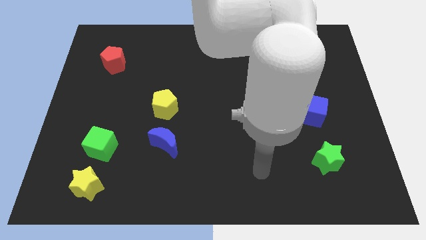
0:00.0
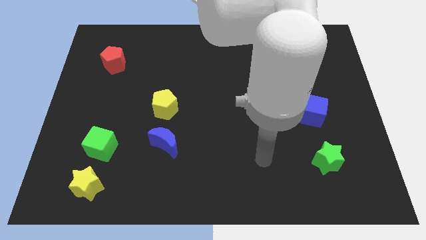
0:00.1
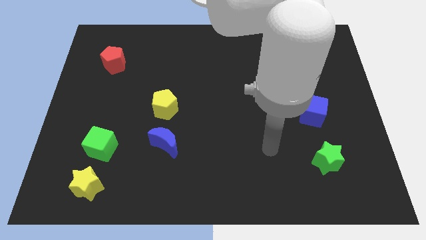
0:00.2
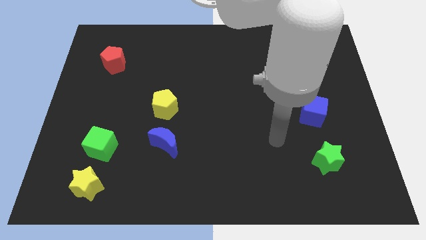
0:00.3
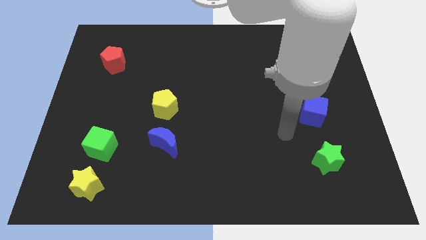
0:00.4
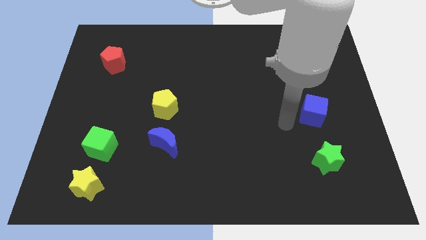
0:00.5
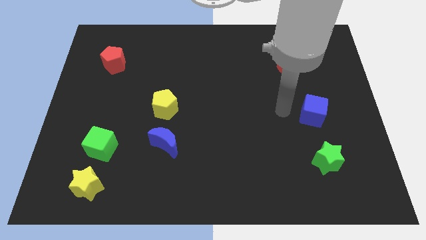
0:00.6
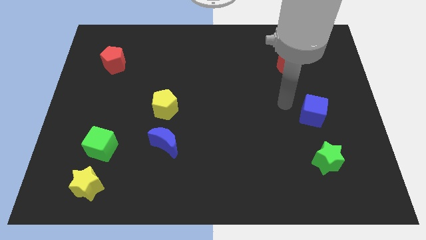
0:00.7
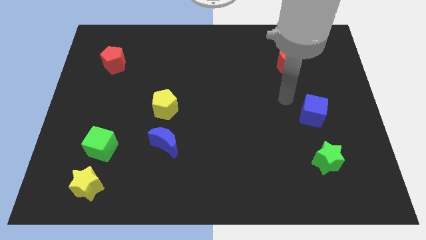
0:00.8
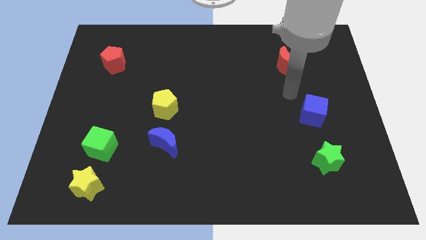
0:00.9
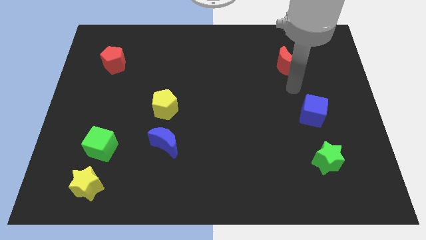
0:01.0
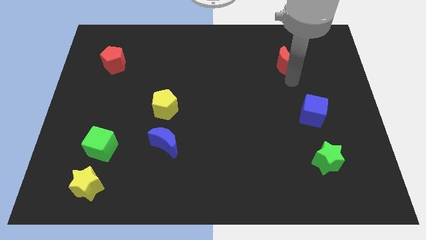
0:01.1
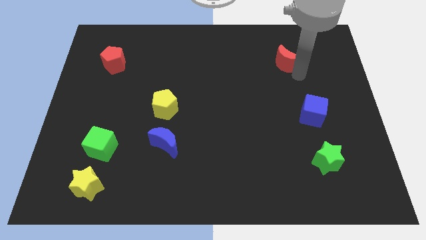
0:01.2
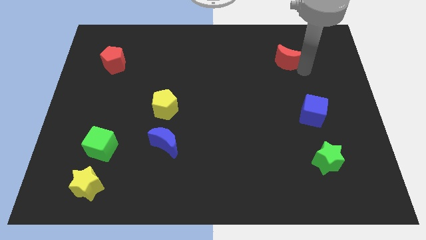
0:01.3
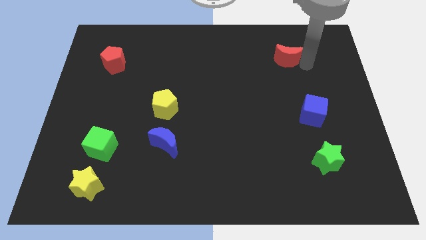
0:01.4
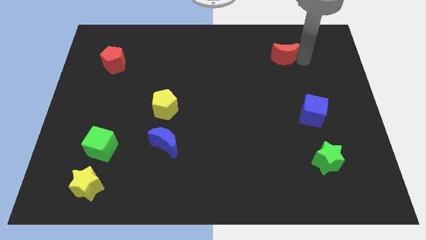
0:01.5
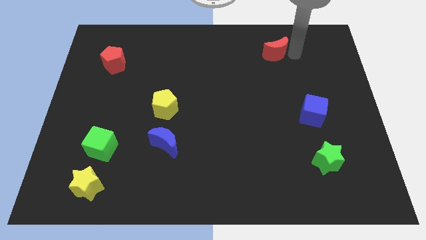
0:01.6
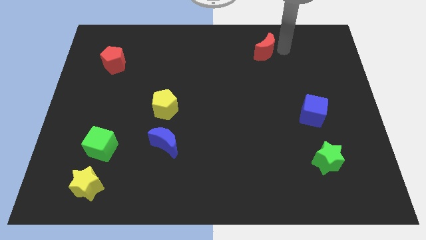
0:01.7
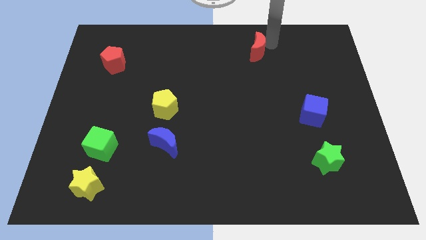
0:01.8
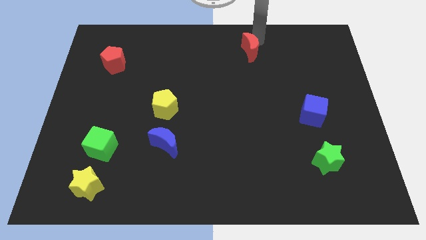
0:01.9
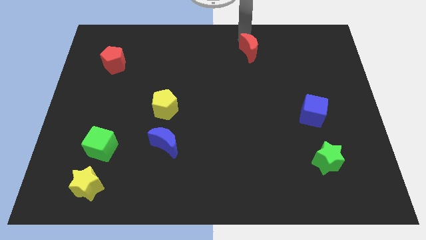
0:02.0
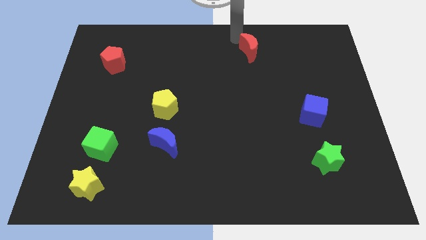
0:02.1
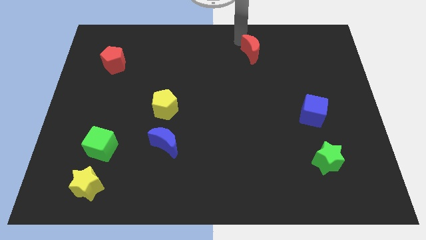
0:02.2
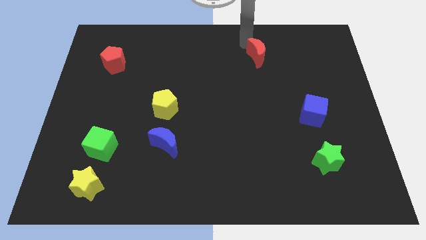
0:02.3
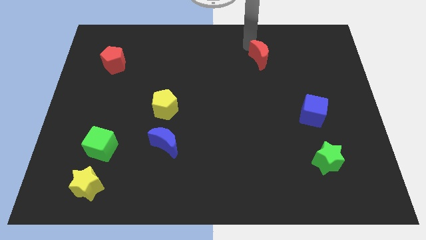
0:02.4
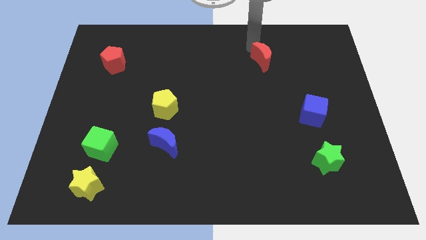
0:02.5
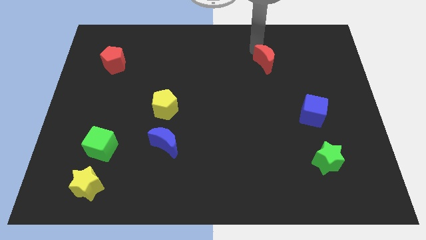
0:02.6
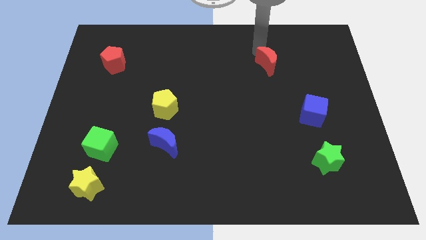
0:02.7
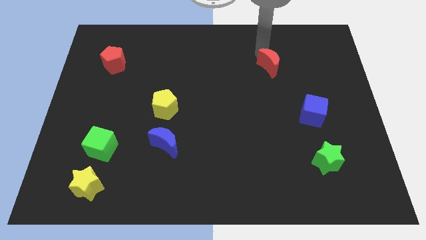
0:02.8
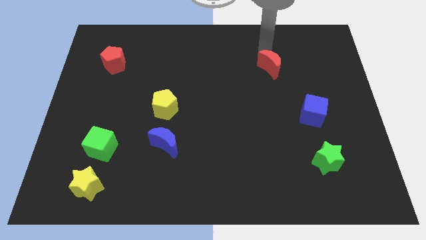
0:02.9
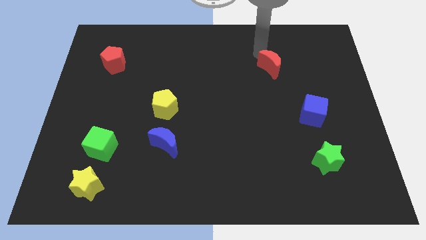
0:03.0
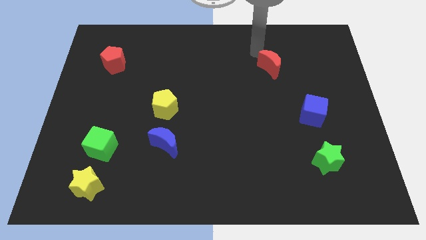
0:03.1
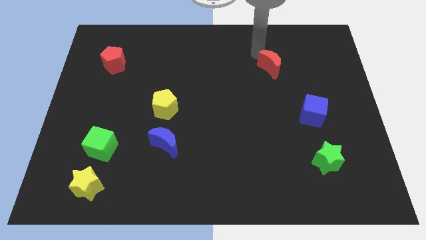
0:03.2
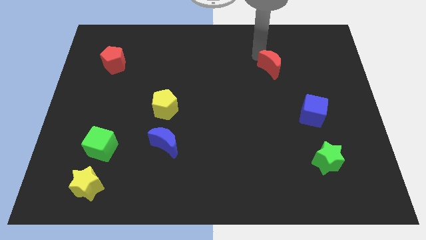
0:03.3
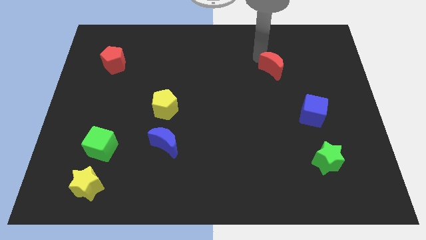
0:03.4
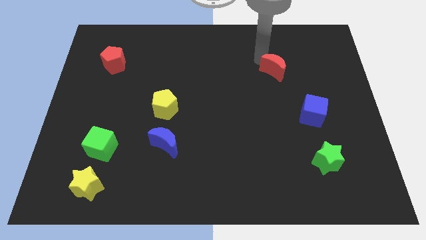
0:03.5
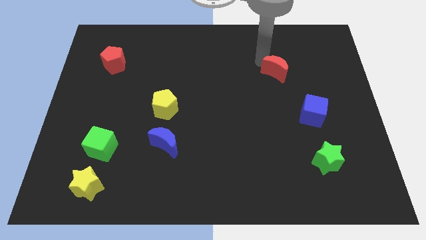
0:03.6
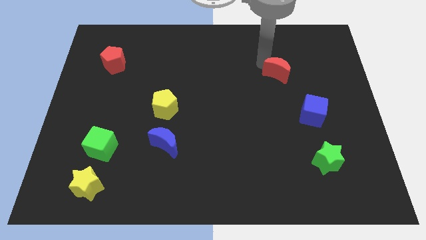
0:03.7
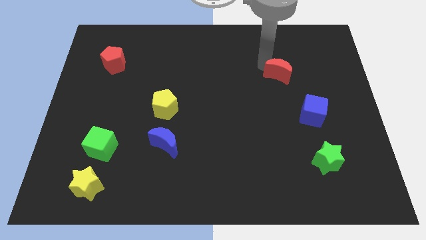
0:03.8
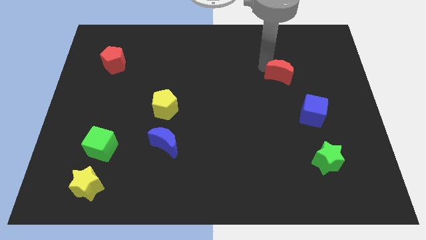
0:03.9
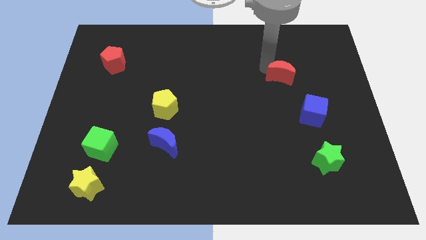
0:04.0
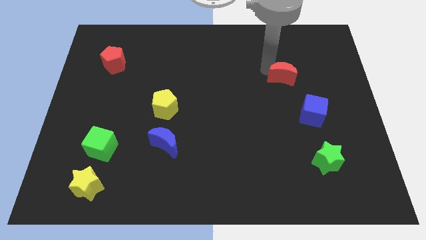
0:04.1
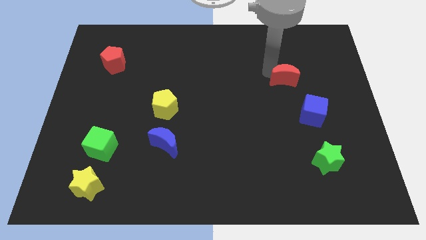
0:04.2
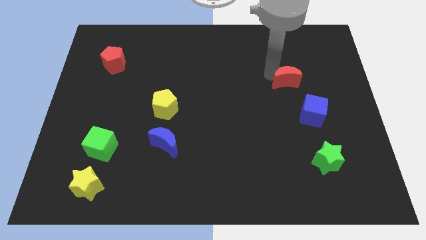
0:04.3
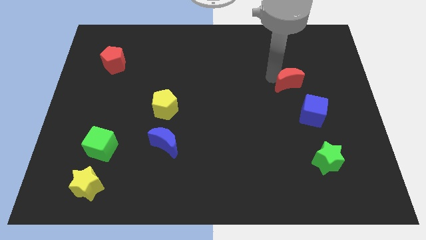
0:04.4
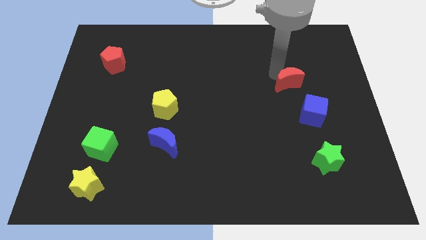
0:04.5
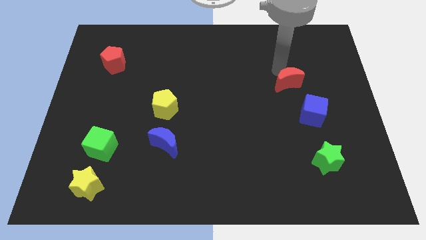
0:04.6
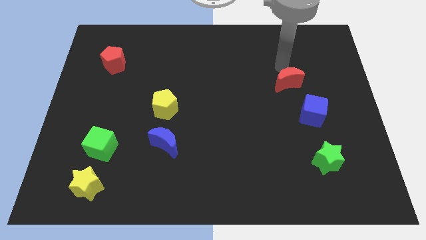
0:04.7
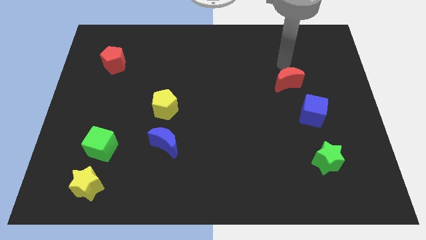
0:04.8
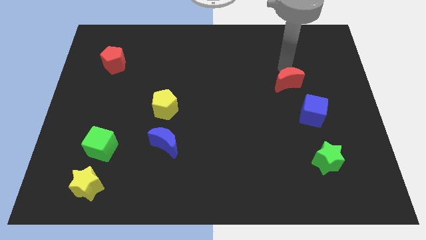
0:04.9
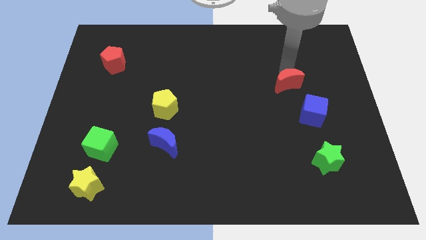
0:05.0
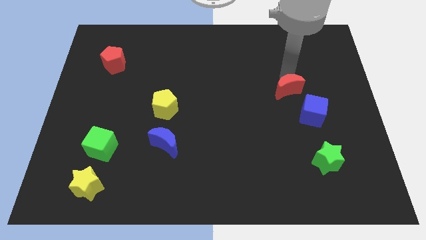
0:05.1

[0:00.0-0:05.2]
push the red moon down a little bit

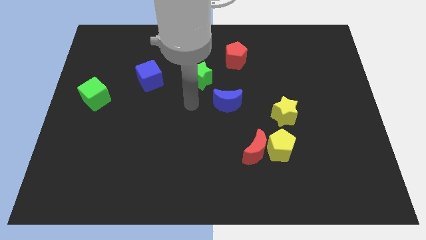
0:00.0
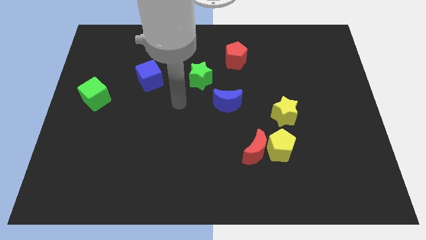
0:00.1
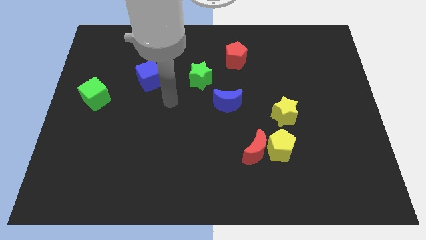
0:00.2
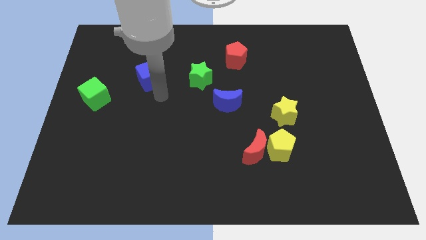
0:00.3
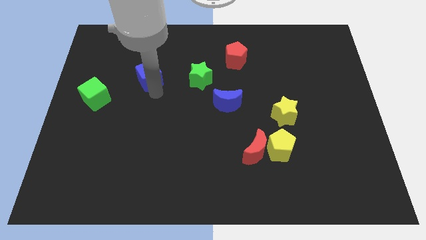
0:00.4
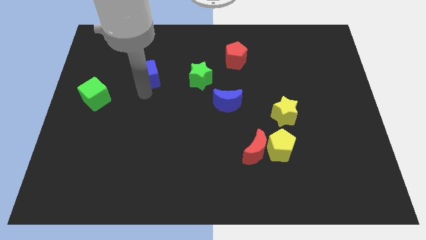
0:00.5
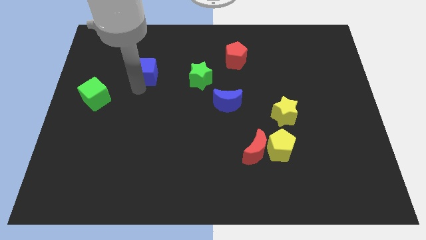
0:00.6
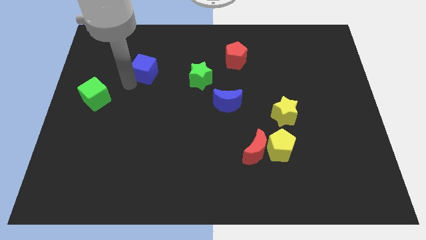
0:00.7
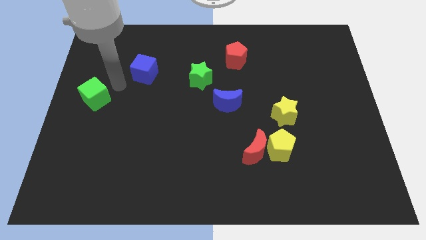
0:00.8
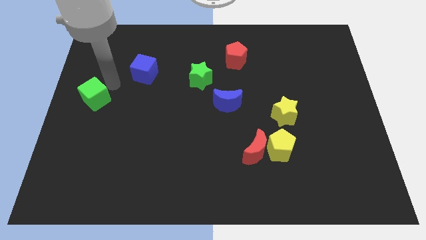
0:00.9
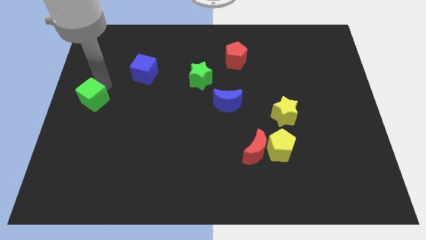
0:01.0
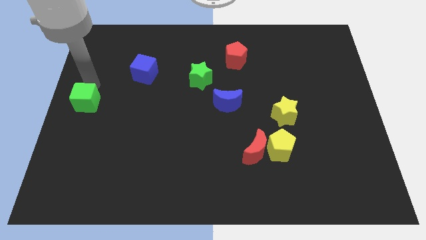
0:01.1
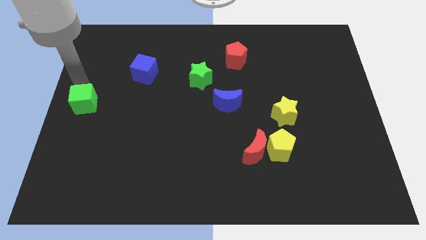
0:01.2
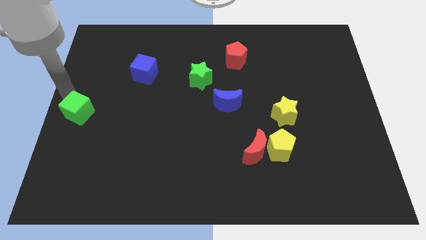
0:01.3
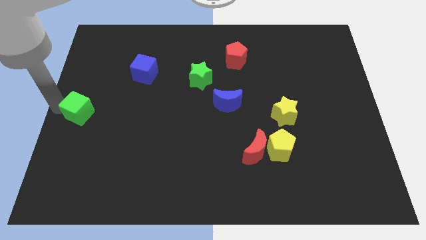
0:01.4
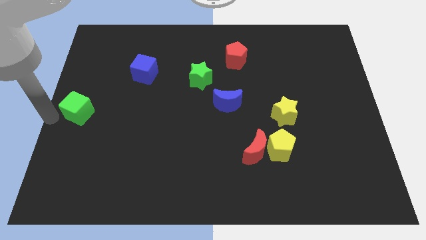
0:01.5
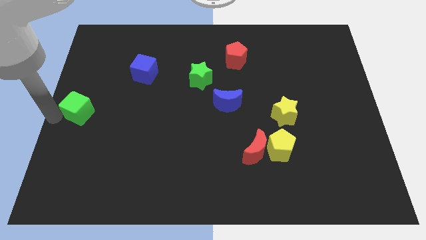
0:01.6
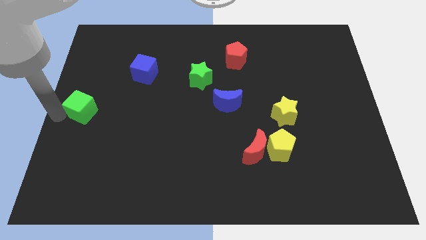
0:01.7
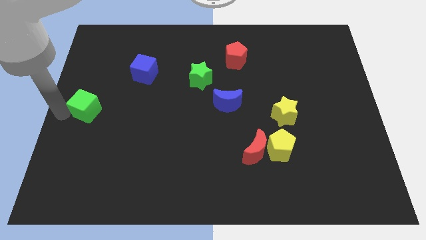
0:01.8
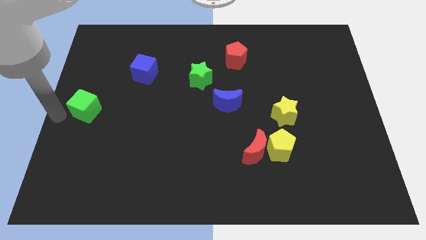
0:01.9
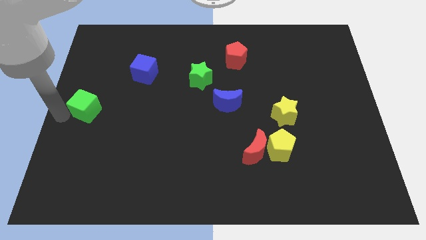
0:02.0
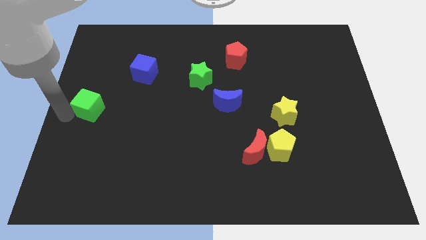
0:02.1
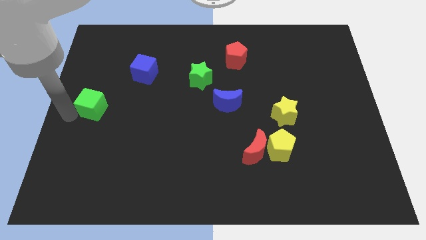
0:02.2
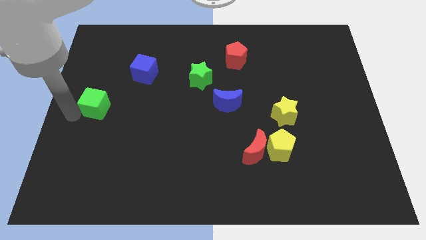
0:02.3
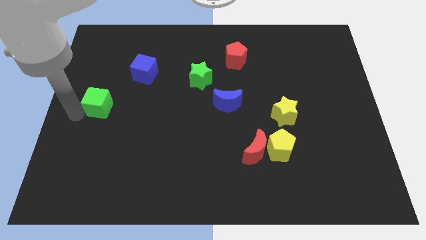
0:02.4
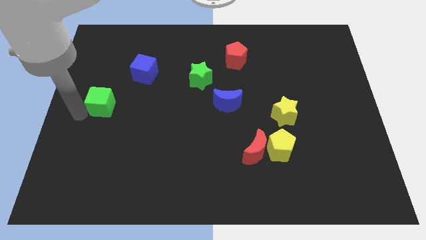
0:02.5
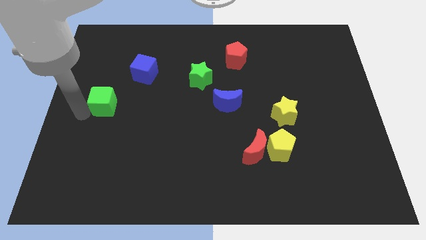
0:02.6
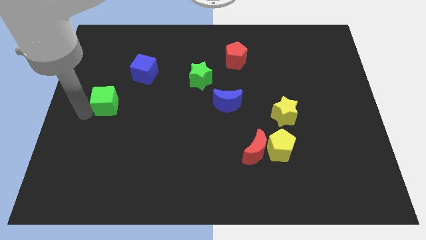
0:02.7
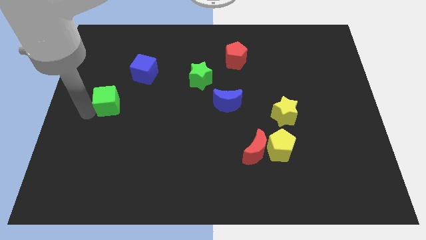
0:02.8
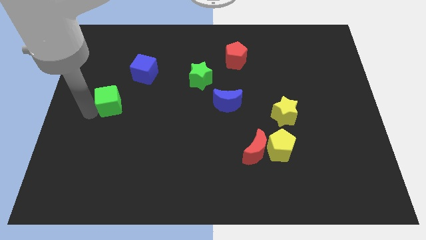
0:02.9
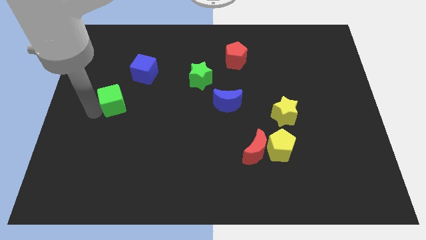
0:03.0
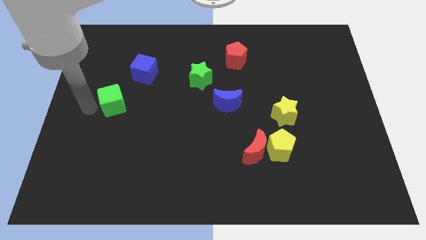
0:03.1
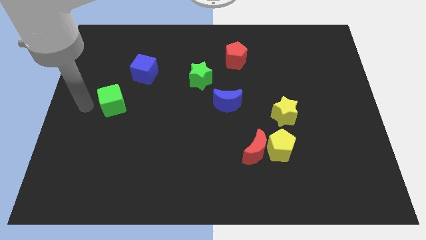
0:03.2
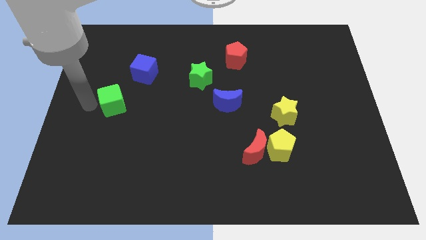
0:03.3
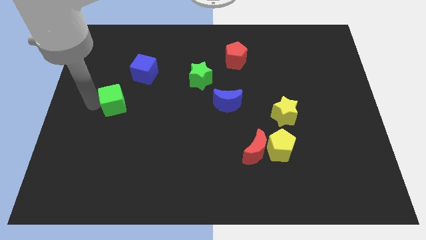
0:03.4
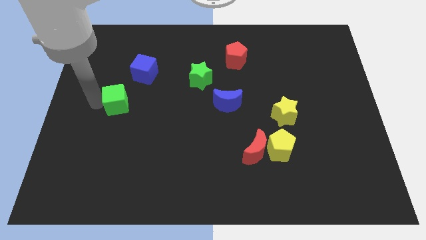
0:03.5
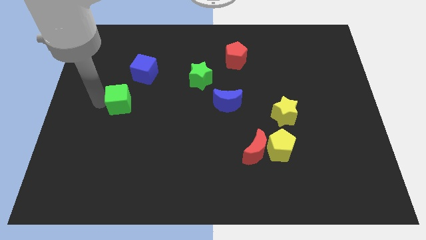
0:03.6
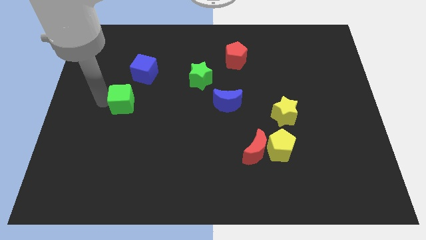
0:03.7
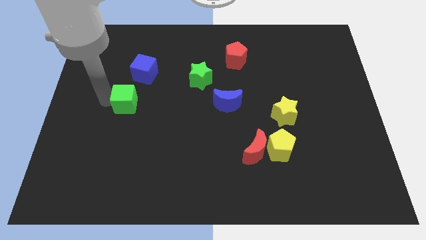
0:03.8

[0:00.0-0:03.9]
move the green cube right somewhat
